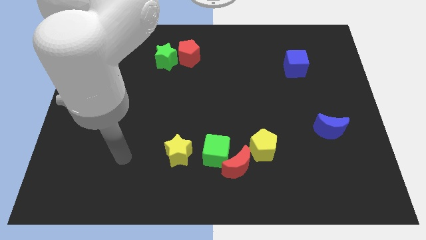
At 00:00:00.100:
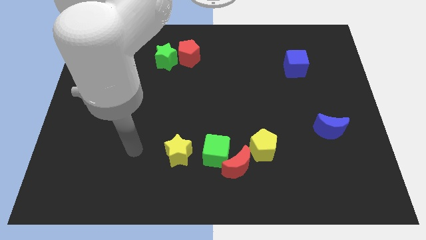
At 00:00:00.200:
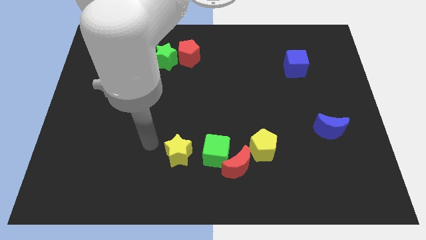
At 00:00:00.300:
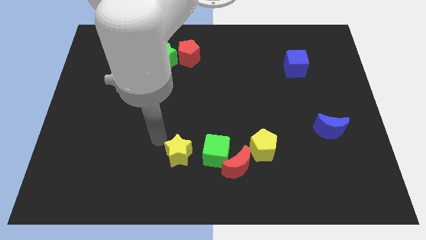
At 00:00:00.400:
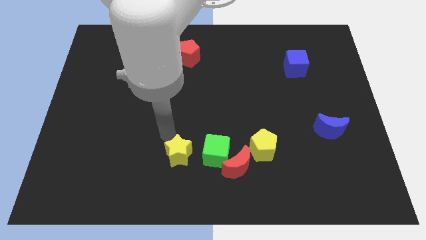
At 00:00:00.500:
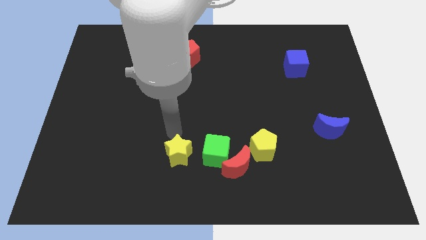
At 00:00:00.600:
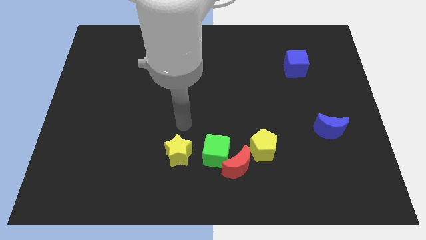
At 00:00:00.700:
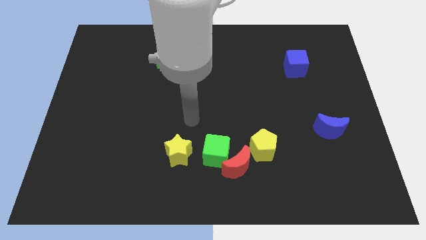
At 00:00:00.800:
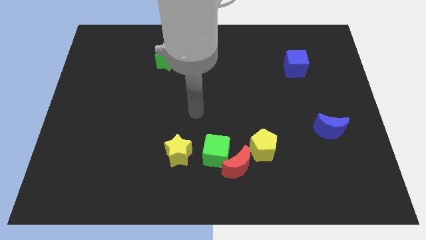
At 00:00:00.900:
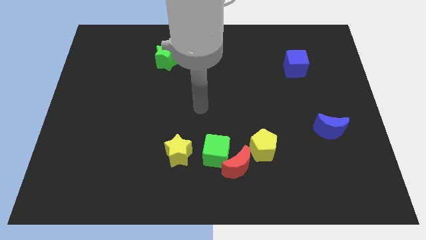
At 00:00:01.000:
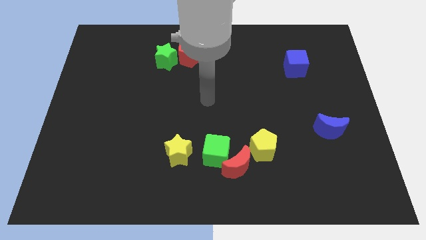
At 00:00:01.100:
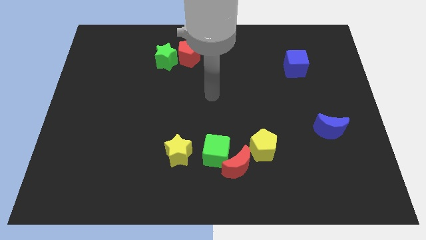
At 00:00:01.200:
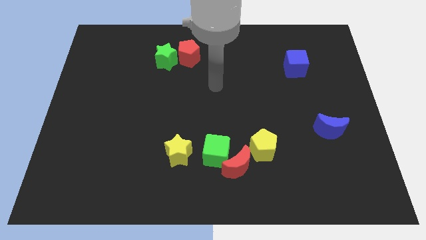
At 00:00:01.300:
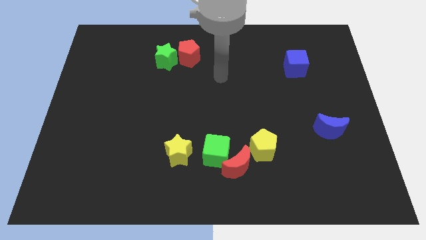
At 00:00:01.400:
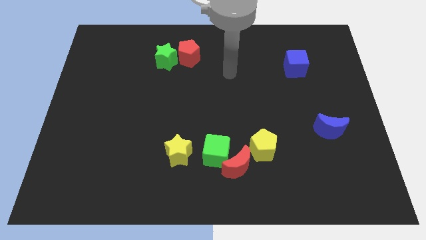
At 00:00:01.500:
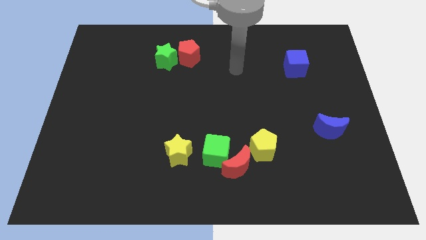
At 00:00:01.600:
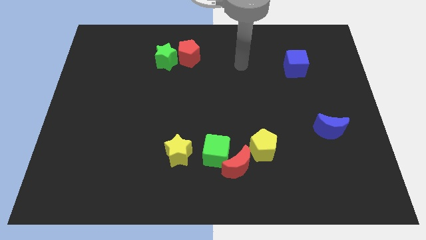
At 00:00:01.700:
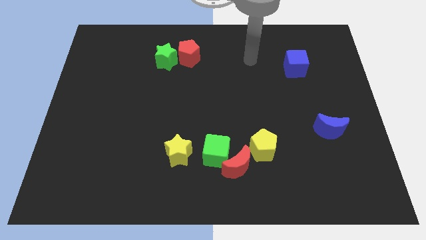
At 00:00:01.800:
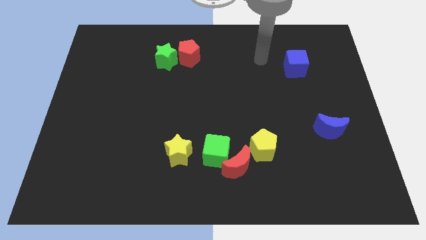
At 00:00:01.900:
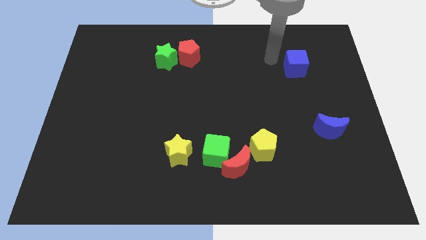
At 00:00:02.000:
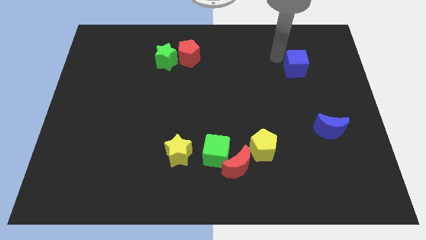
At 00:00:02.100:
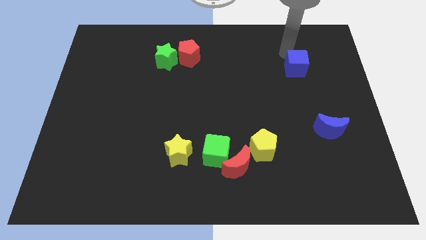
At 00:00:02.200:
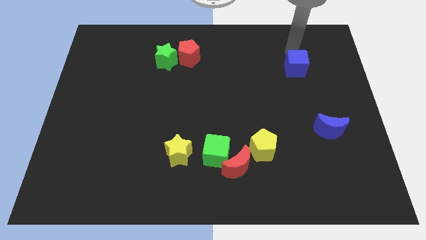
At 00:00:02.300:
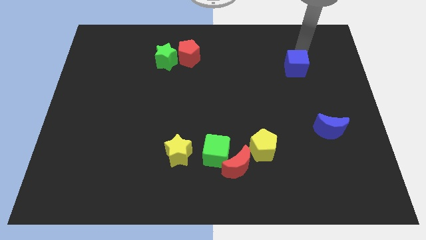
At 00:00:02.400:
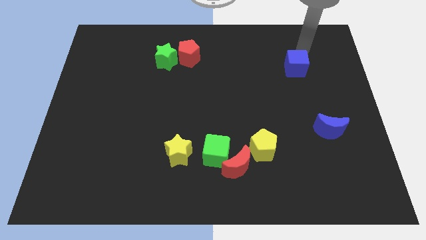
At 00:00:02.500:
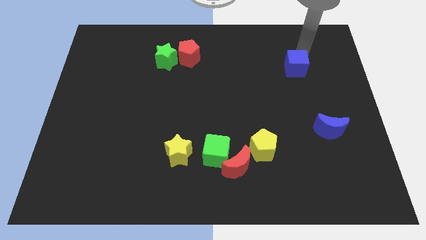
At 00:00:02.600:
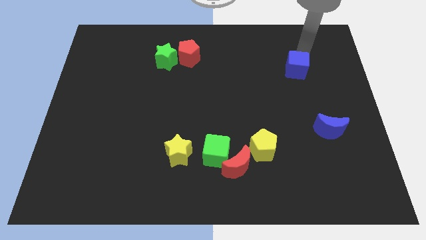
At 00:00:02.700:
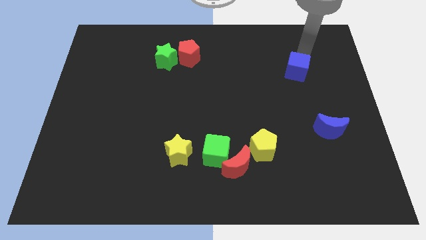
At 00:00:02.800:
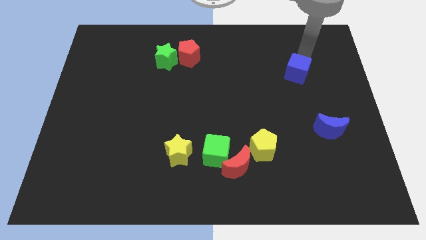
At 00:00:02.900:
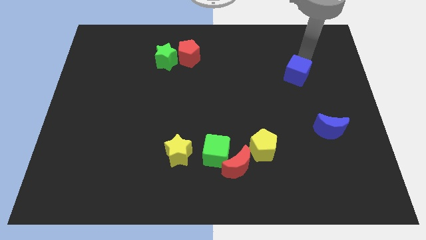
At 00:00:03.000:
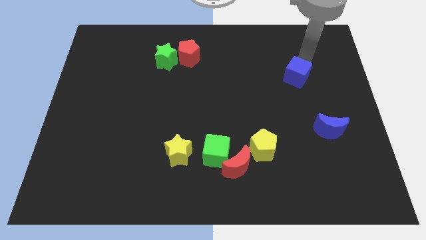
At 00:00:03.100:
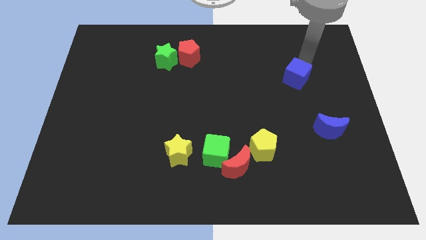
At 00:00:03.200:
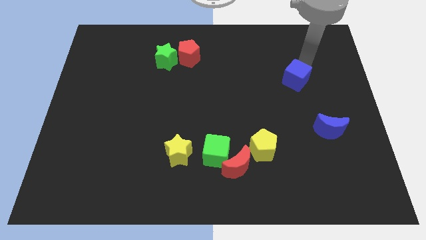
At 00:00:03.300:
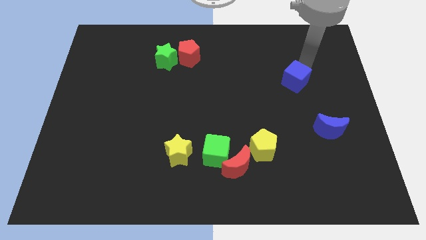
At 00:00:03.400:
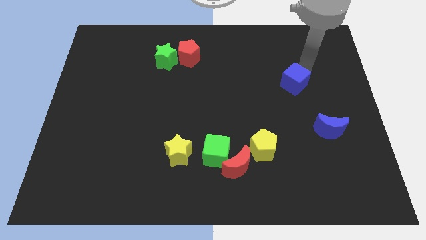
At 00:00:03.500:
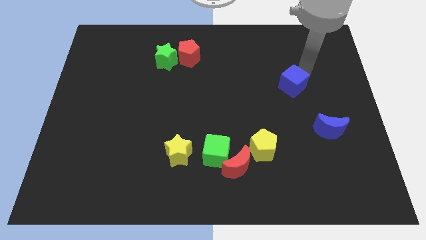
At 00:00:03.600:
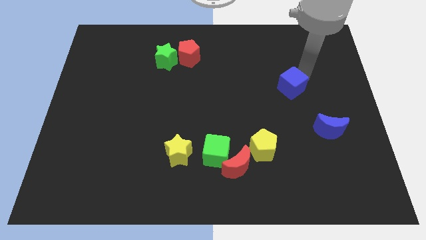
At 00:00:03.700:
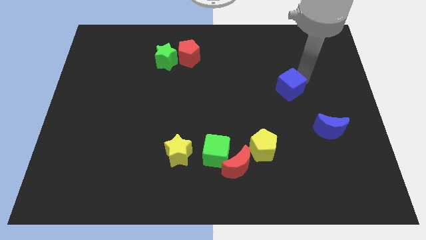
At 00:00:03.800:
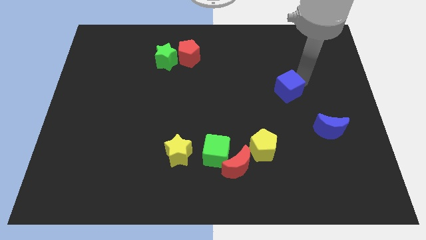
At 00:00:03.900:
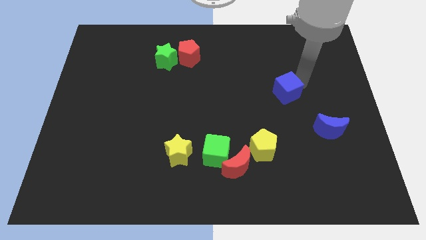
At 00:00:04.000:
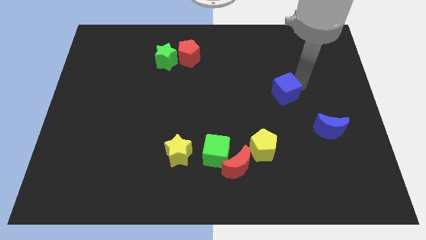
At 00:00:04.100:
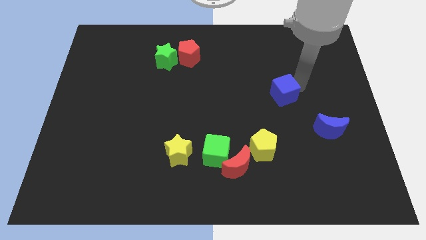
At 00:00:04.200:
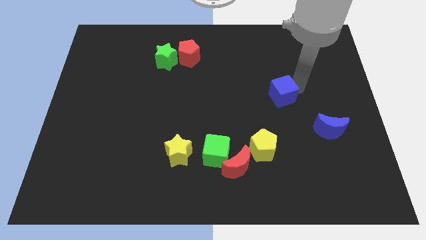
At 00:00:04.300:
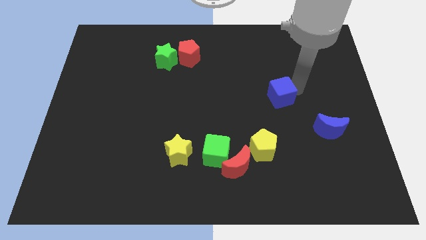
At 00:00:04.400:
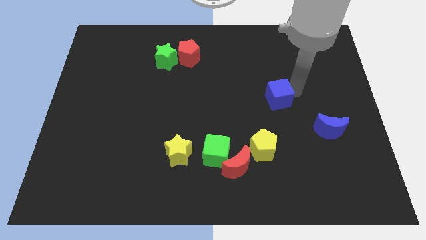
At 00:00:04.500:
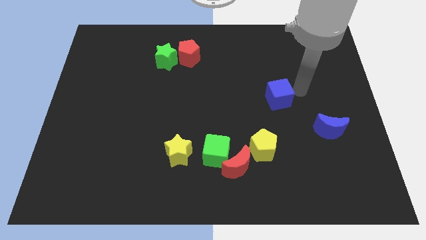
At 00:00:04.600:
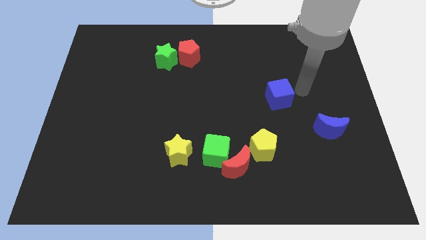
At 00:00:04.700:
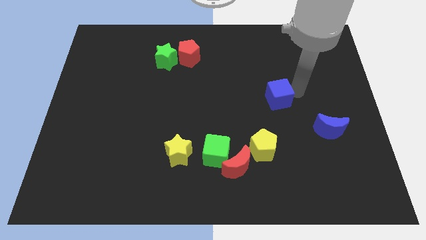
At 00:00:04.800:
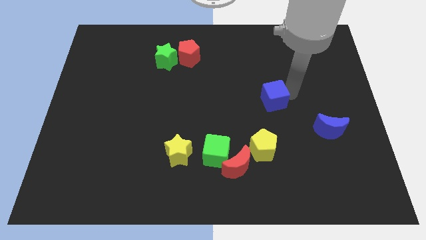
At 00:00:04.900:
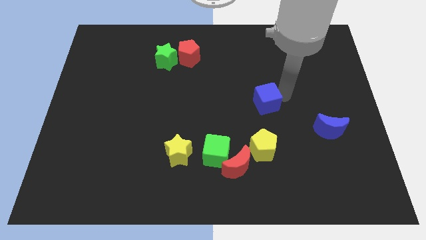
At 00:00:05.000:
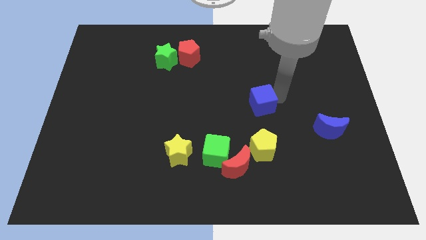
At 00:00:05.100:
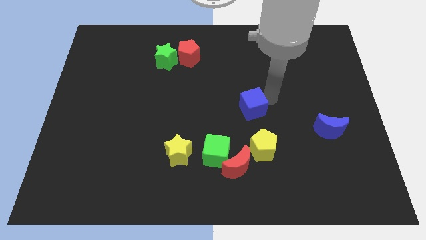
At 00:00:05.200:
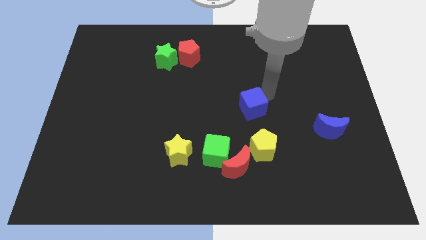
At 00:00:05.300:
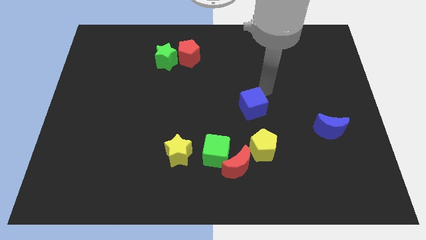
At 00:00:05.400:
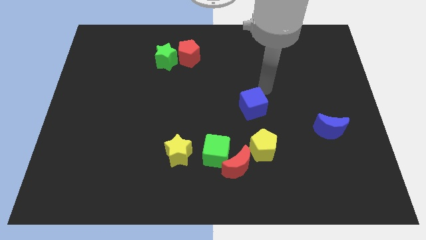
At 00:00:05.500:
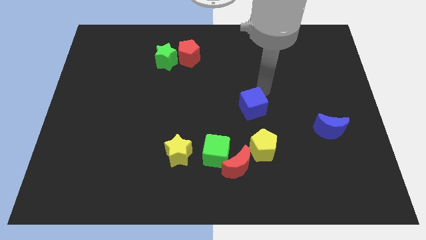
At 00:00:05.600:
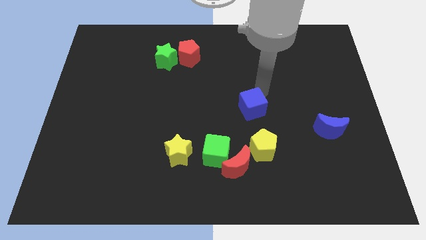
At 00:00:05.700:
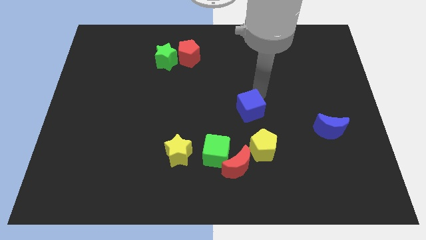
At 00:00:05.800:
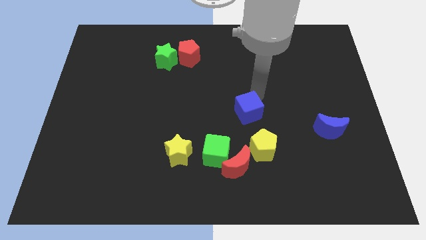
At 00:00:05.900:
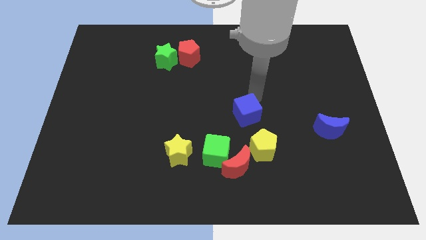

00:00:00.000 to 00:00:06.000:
slide the blue cube to the top left of the yellow pentagon

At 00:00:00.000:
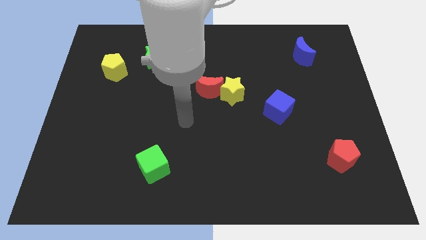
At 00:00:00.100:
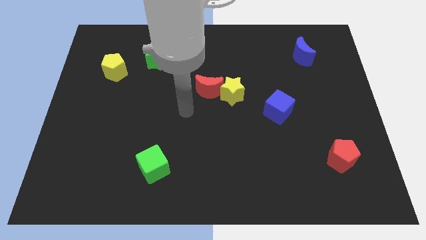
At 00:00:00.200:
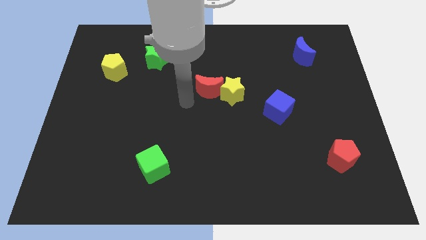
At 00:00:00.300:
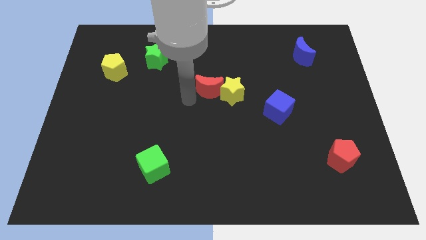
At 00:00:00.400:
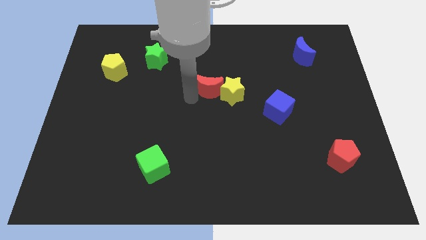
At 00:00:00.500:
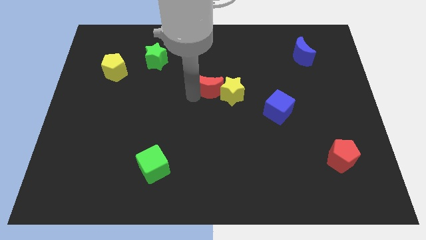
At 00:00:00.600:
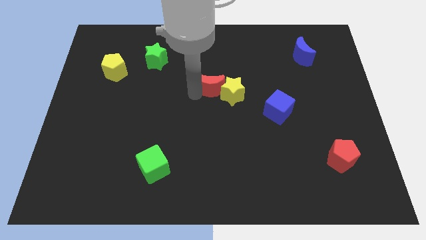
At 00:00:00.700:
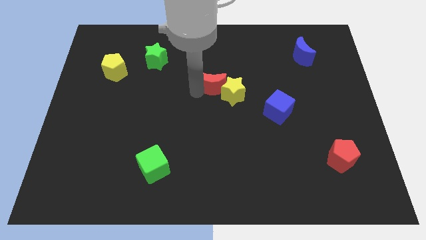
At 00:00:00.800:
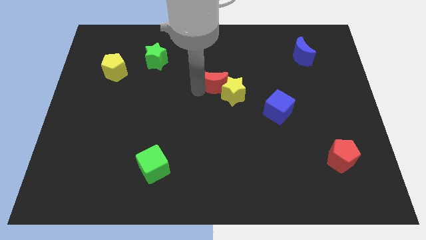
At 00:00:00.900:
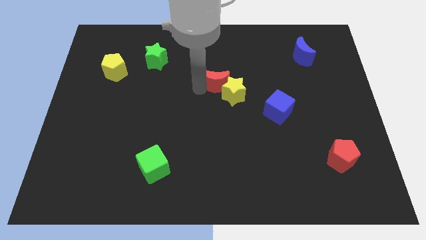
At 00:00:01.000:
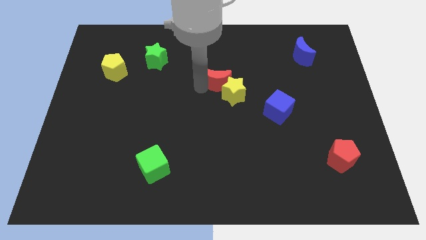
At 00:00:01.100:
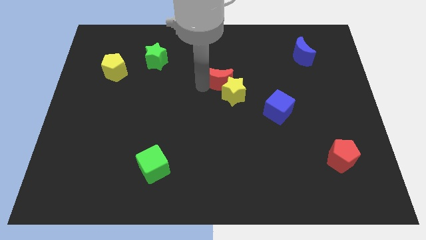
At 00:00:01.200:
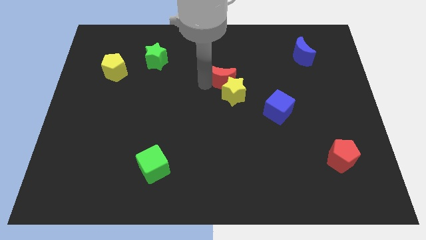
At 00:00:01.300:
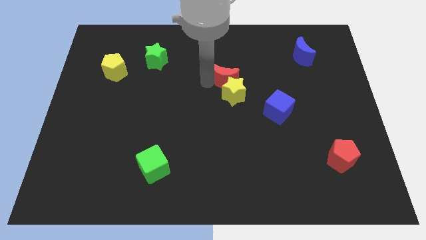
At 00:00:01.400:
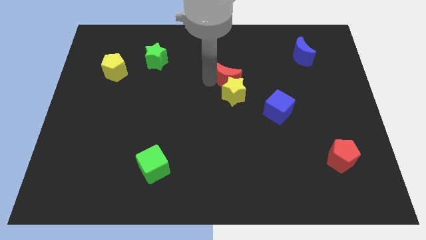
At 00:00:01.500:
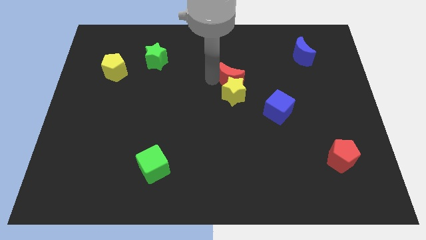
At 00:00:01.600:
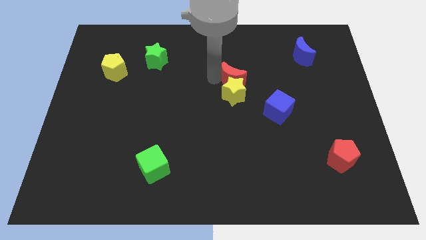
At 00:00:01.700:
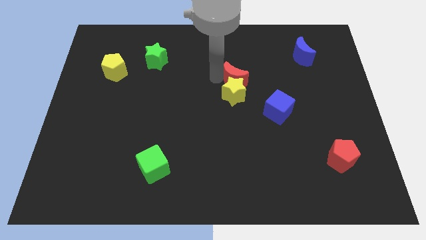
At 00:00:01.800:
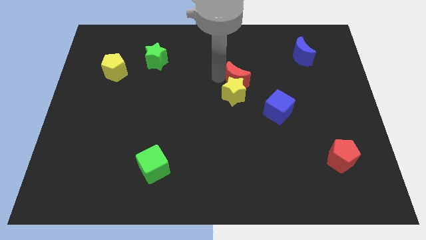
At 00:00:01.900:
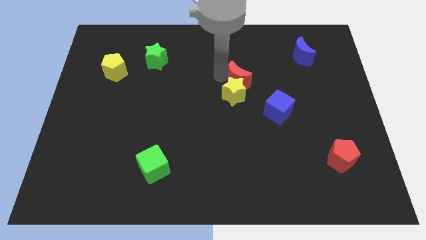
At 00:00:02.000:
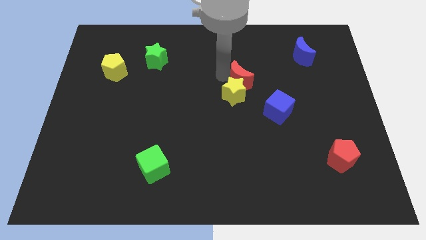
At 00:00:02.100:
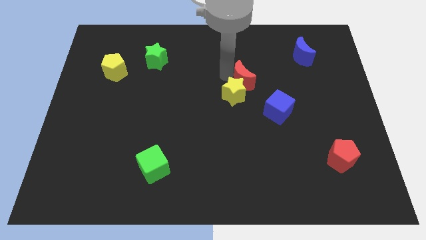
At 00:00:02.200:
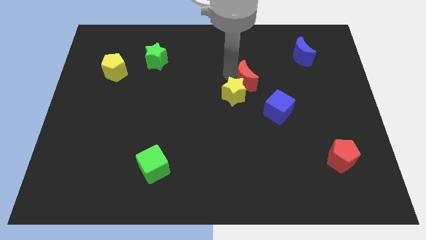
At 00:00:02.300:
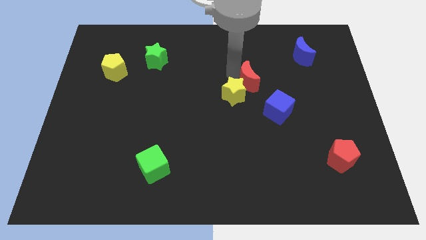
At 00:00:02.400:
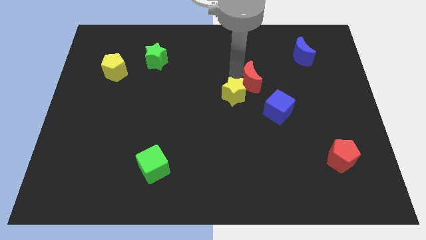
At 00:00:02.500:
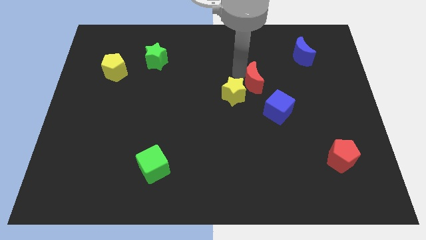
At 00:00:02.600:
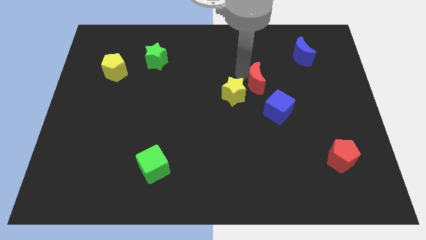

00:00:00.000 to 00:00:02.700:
move the red moon to the top of the blue cube
